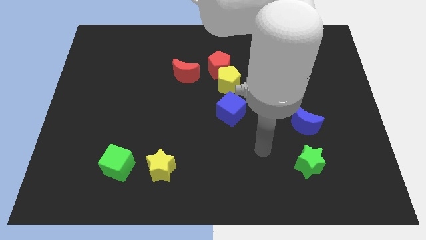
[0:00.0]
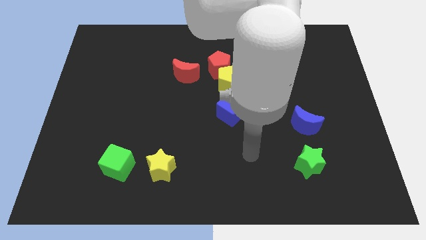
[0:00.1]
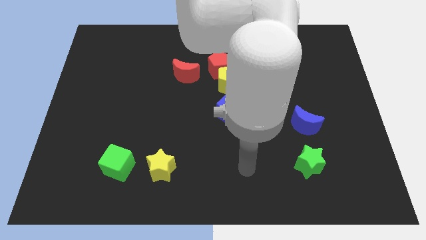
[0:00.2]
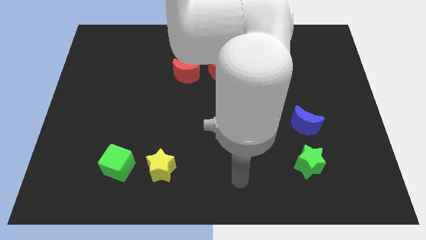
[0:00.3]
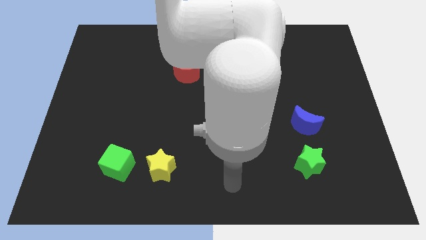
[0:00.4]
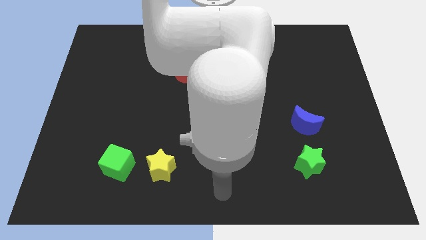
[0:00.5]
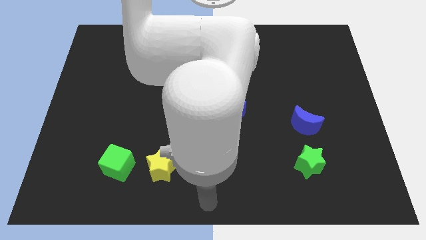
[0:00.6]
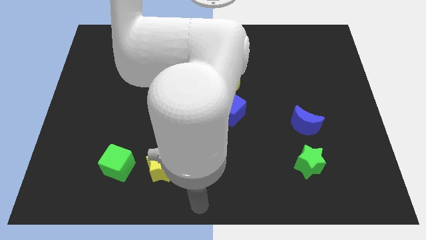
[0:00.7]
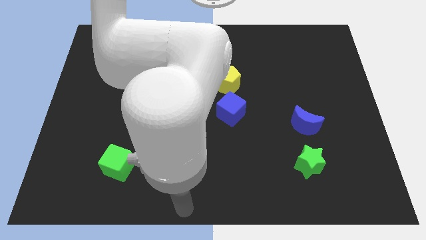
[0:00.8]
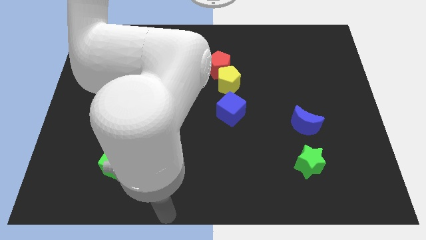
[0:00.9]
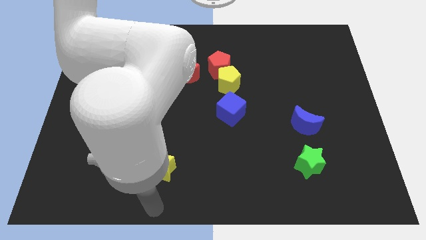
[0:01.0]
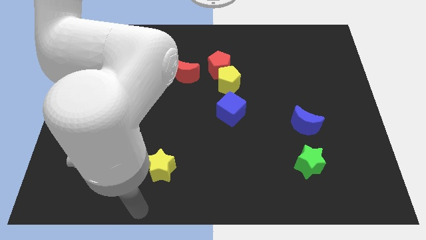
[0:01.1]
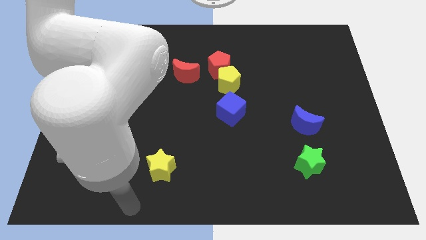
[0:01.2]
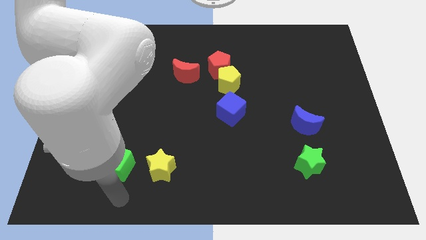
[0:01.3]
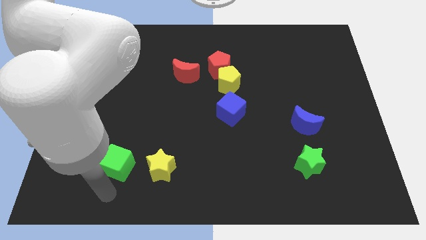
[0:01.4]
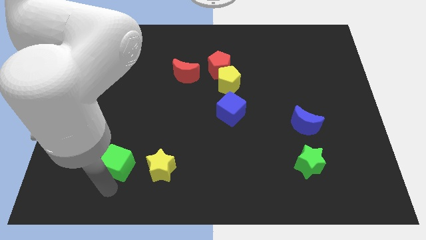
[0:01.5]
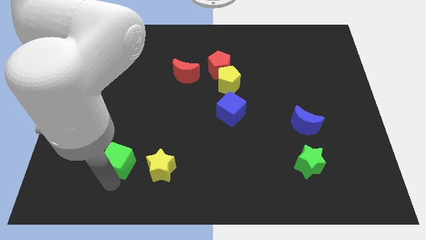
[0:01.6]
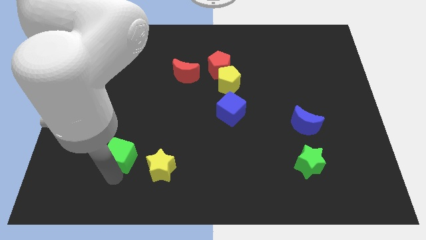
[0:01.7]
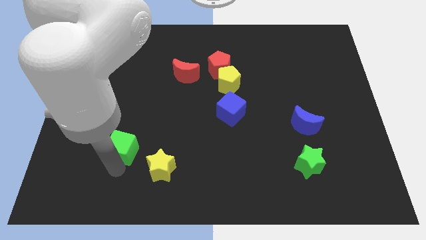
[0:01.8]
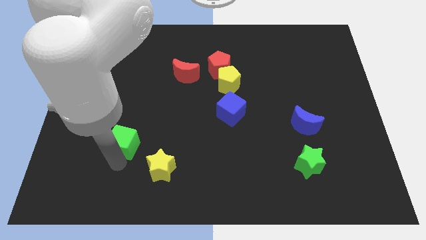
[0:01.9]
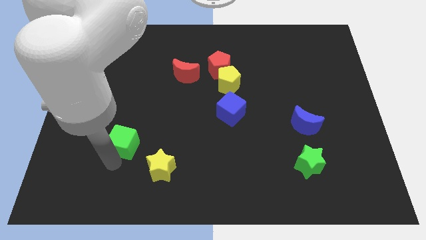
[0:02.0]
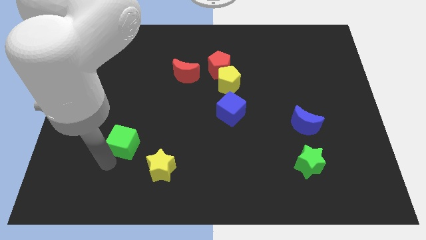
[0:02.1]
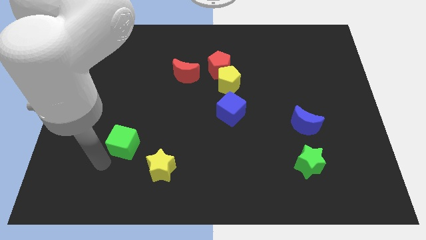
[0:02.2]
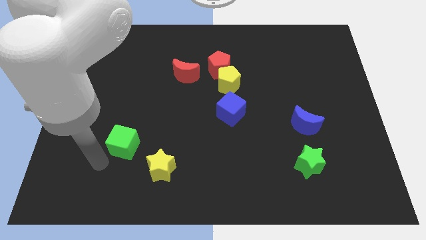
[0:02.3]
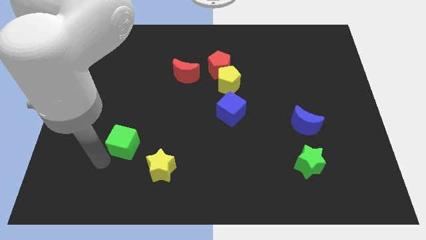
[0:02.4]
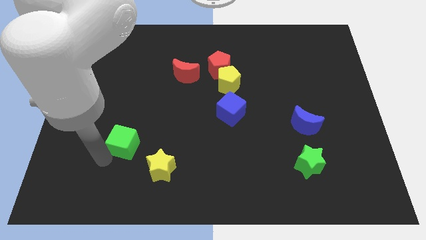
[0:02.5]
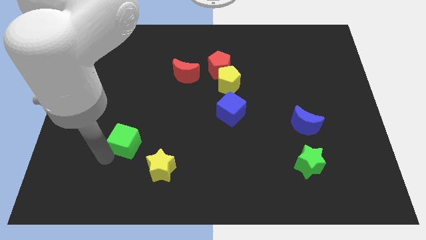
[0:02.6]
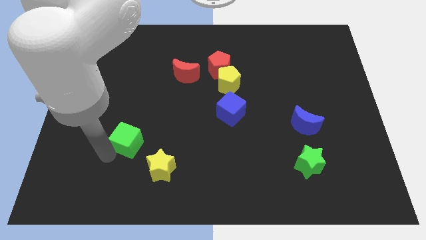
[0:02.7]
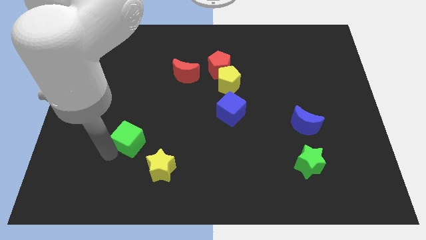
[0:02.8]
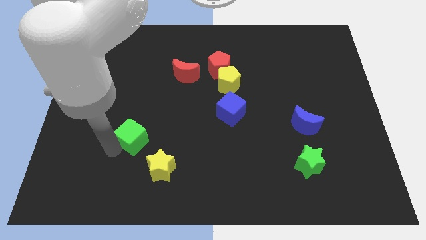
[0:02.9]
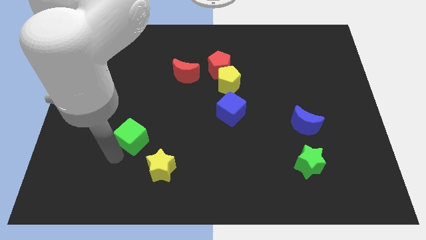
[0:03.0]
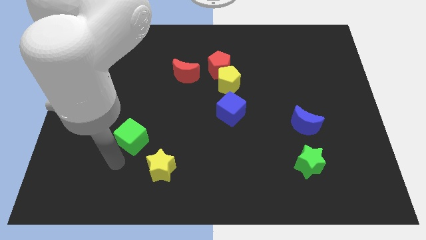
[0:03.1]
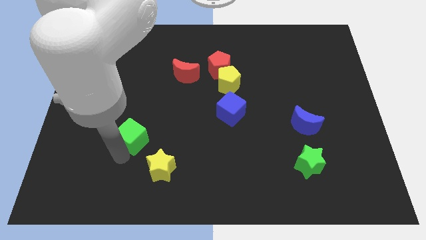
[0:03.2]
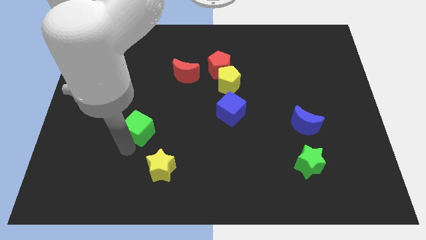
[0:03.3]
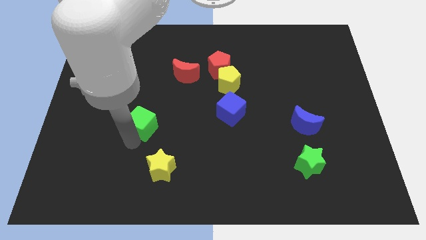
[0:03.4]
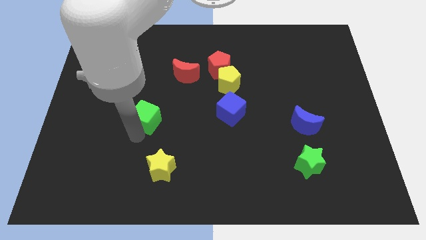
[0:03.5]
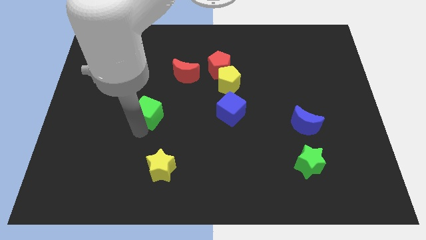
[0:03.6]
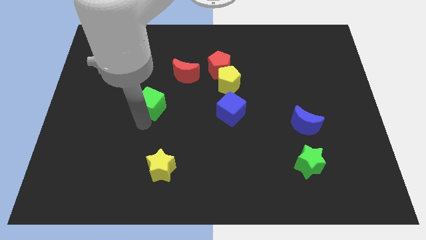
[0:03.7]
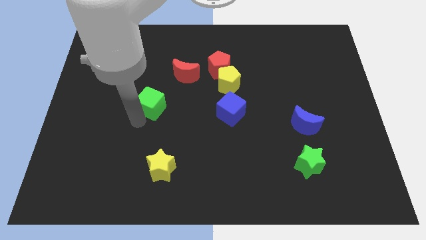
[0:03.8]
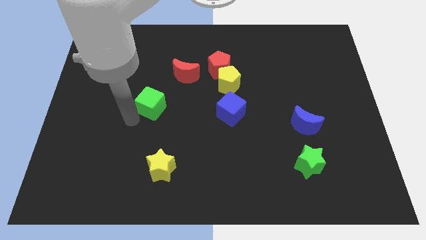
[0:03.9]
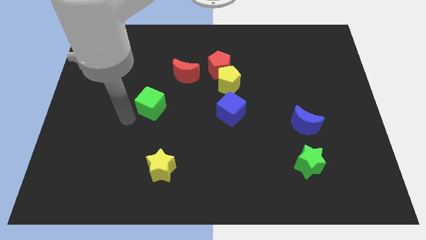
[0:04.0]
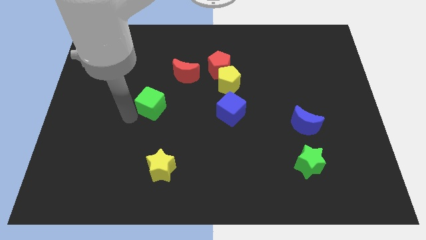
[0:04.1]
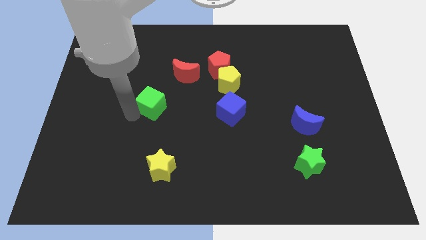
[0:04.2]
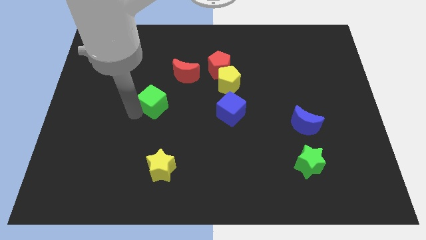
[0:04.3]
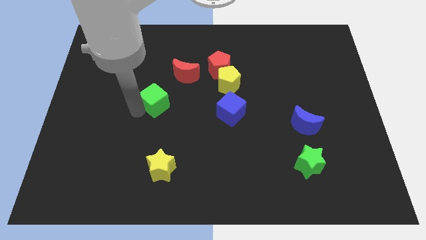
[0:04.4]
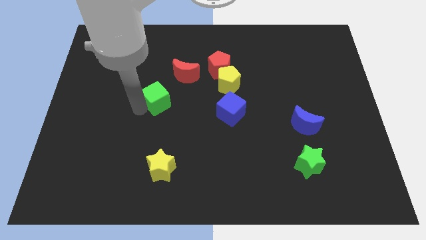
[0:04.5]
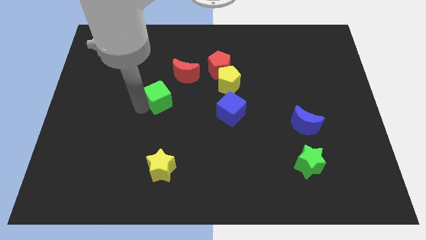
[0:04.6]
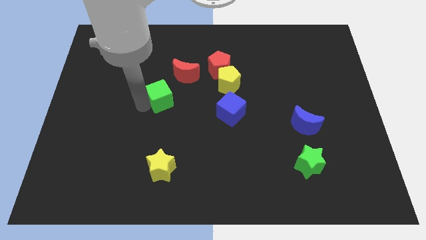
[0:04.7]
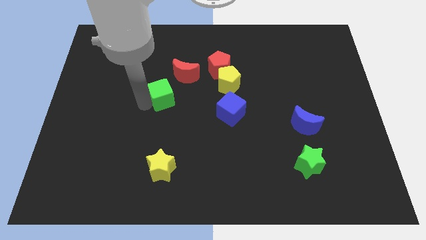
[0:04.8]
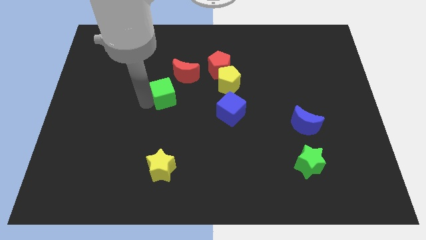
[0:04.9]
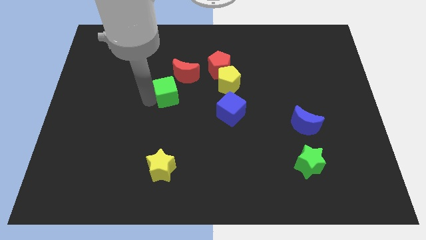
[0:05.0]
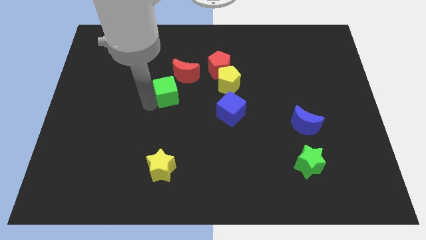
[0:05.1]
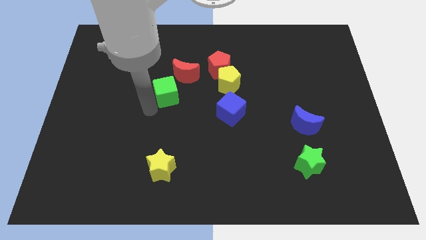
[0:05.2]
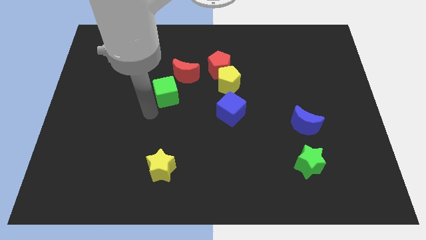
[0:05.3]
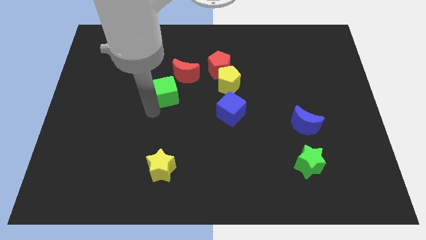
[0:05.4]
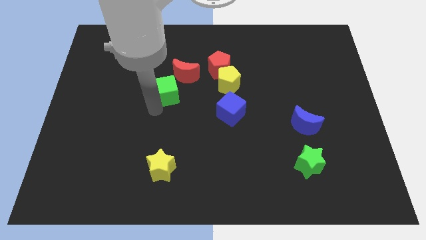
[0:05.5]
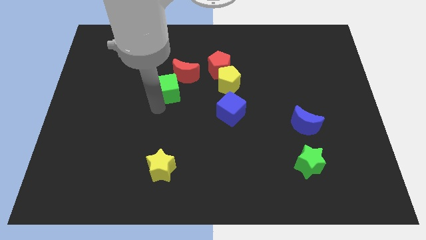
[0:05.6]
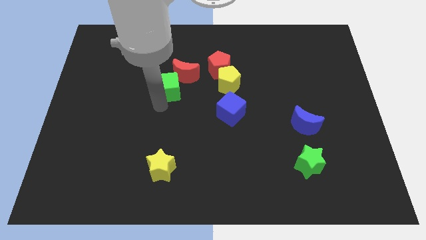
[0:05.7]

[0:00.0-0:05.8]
move the green cube close to the red moon

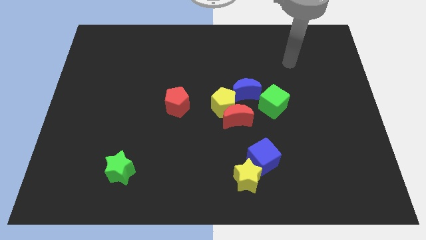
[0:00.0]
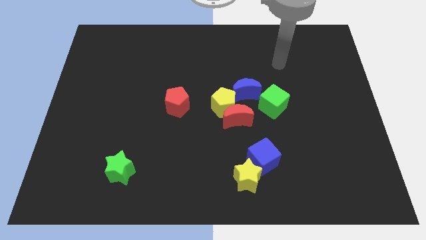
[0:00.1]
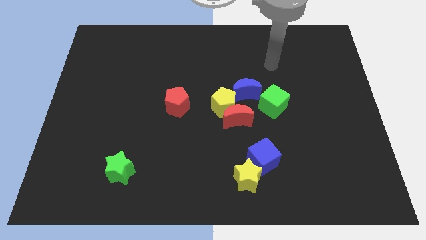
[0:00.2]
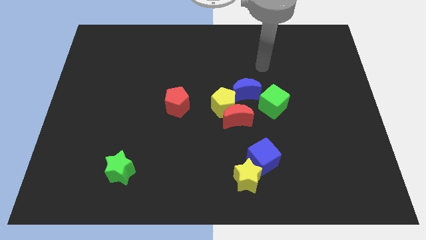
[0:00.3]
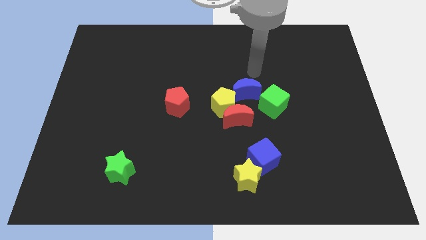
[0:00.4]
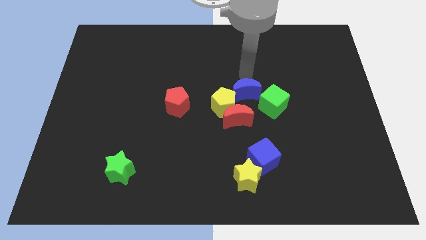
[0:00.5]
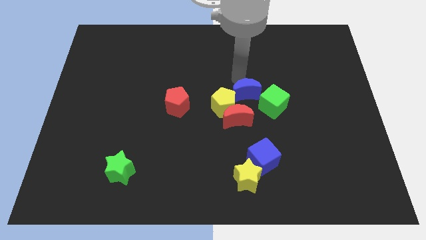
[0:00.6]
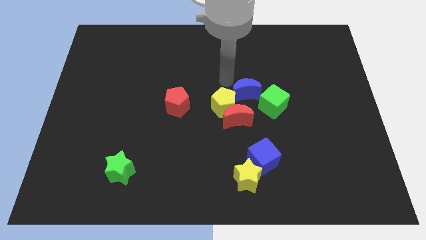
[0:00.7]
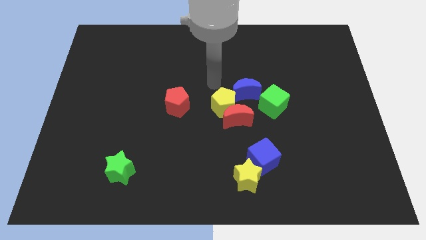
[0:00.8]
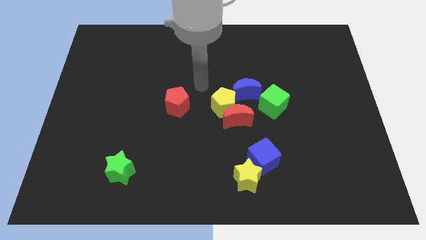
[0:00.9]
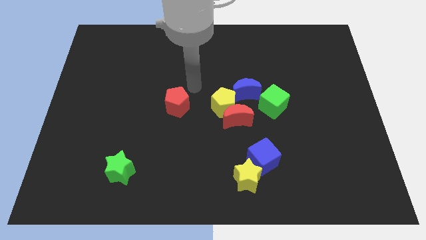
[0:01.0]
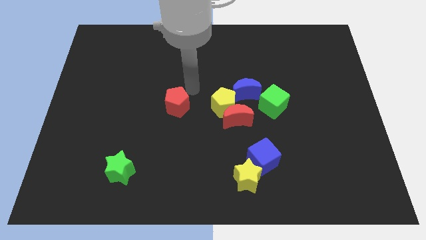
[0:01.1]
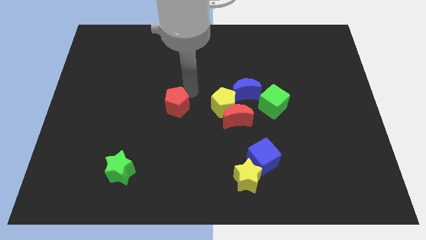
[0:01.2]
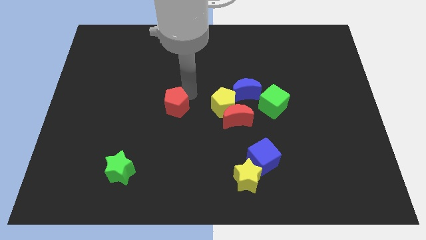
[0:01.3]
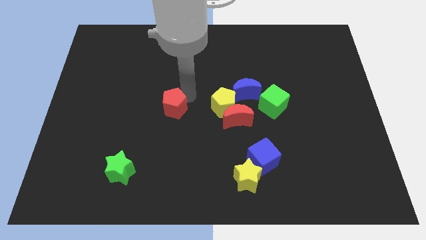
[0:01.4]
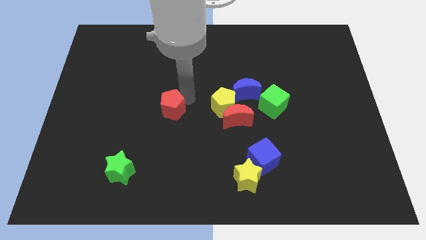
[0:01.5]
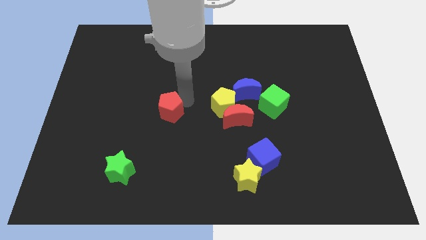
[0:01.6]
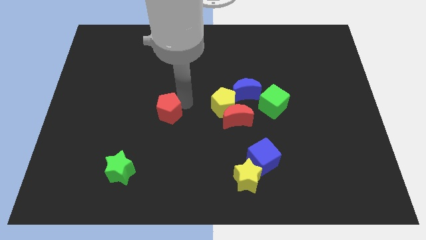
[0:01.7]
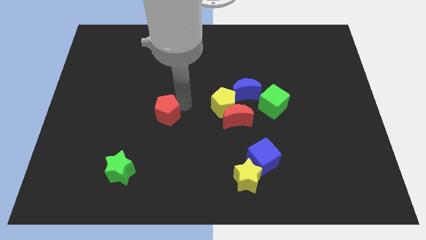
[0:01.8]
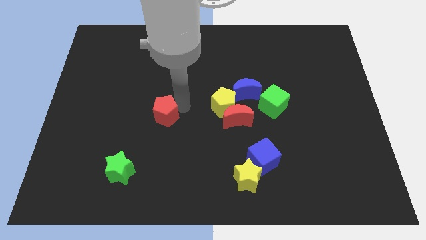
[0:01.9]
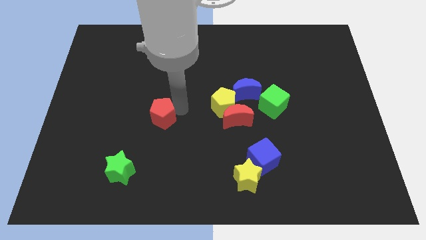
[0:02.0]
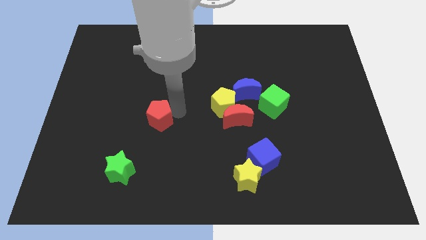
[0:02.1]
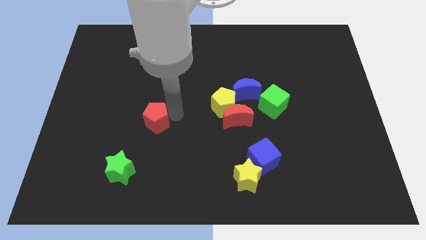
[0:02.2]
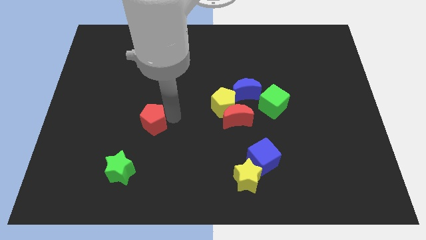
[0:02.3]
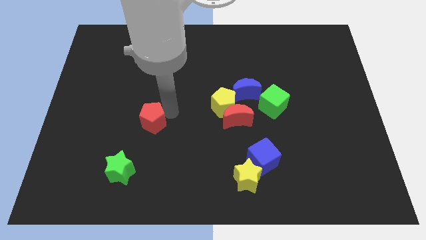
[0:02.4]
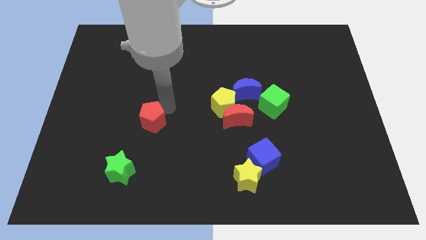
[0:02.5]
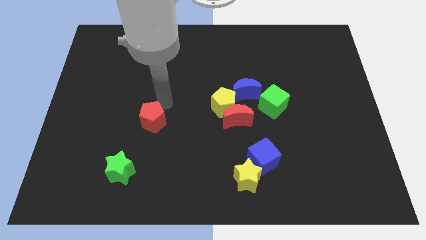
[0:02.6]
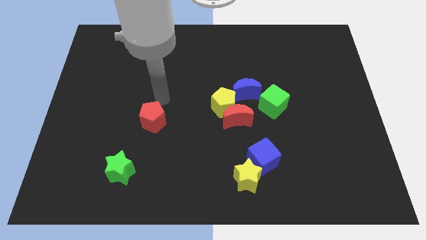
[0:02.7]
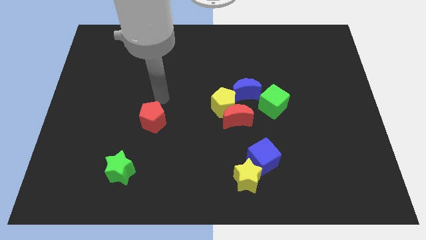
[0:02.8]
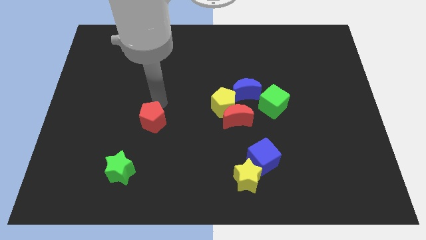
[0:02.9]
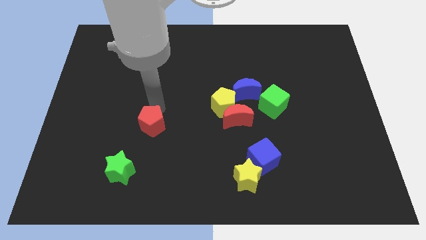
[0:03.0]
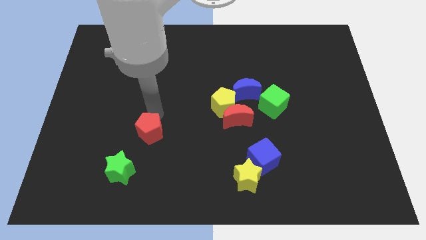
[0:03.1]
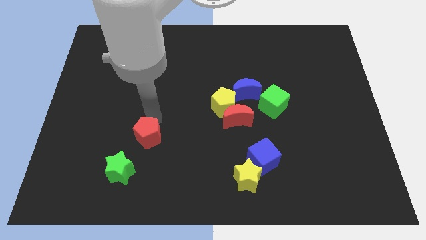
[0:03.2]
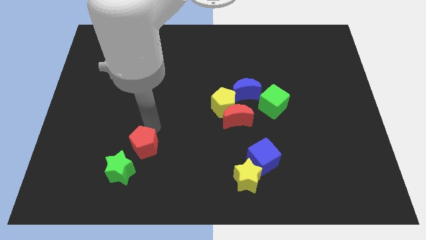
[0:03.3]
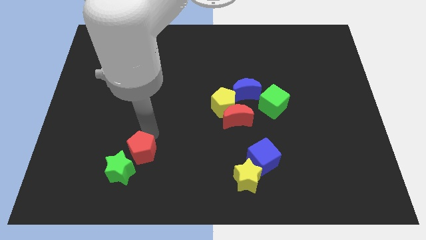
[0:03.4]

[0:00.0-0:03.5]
move the red pentagon close to the green star
